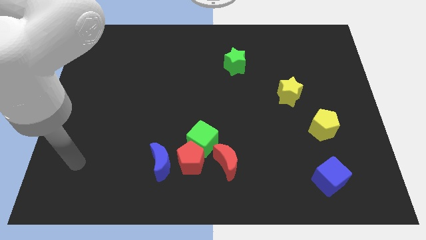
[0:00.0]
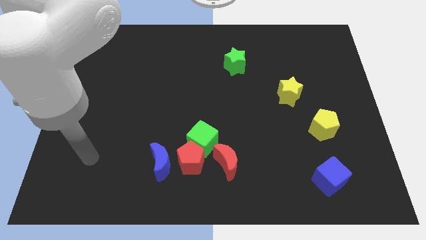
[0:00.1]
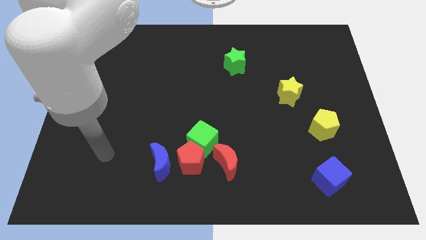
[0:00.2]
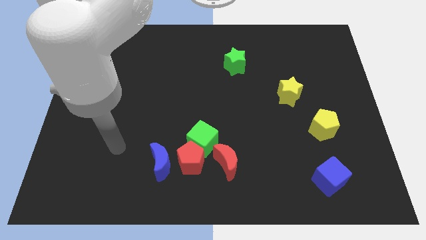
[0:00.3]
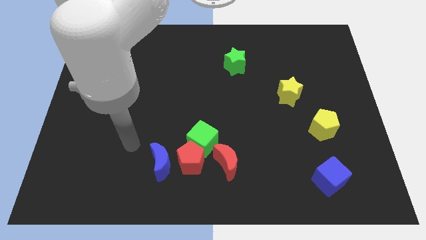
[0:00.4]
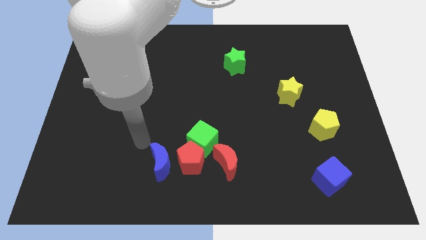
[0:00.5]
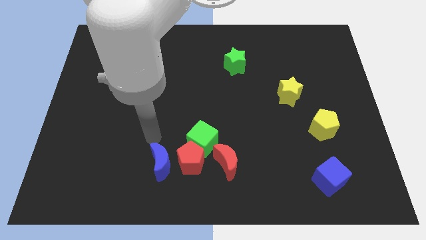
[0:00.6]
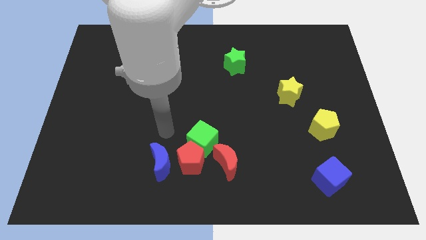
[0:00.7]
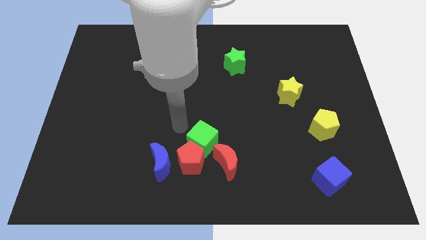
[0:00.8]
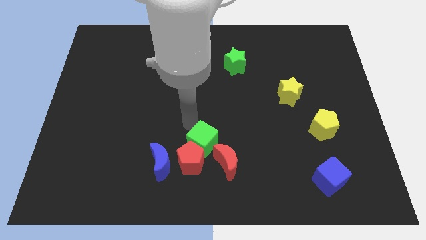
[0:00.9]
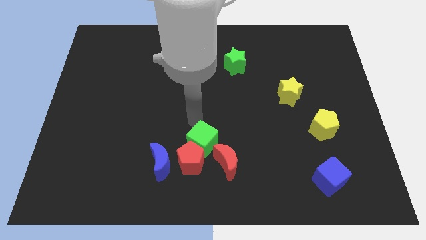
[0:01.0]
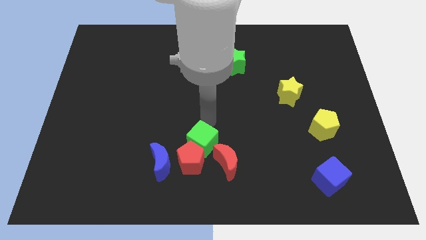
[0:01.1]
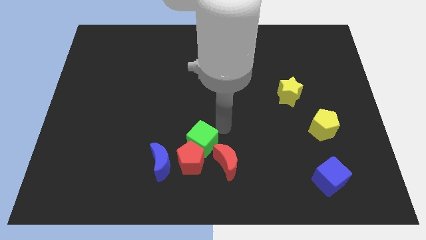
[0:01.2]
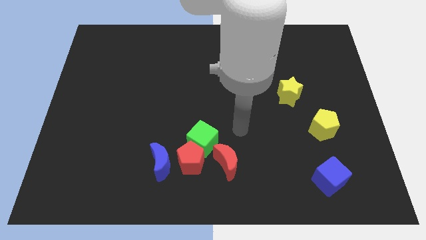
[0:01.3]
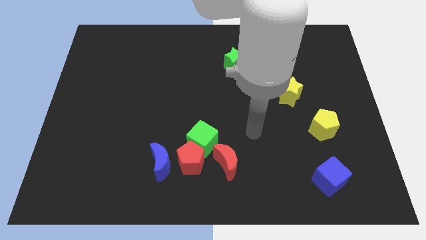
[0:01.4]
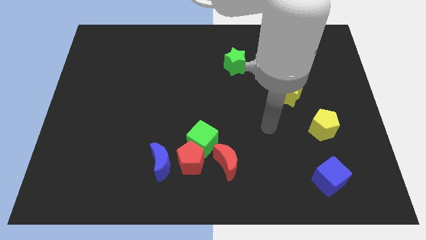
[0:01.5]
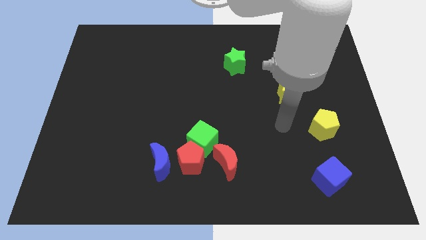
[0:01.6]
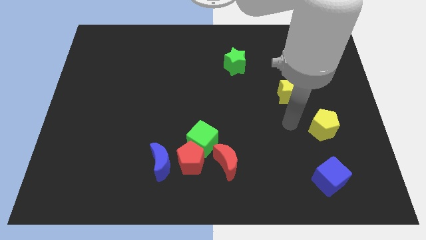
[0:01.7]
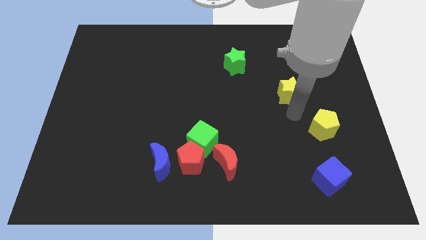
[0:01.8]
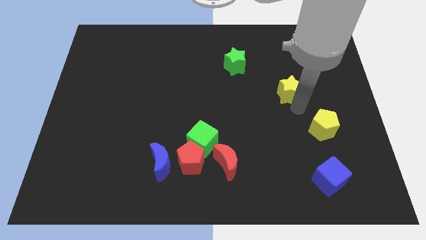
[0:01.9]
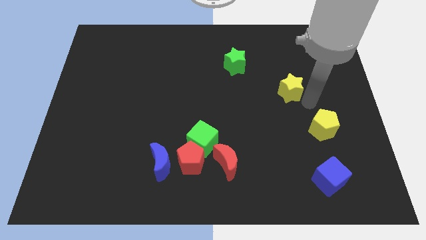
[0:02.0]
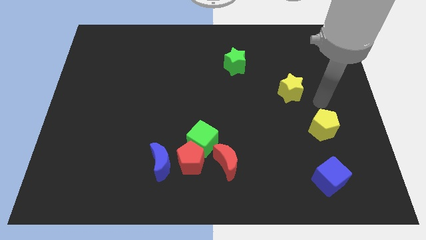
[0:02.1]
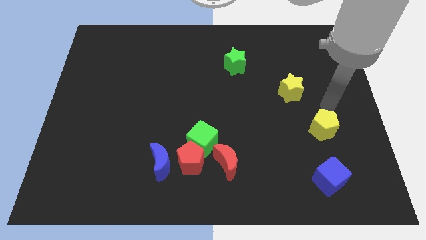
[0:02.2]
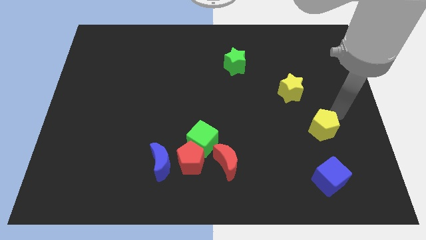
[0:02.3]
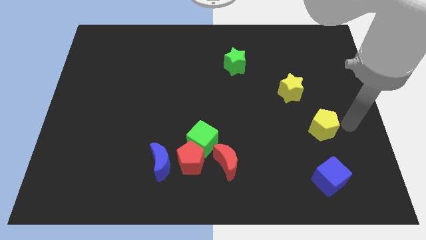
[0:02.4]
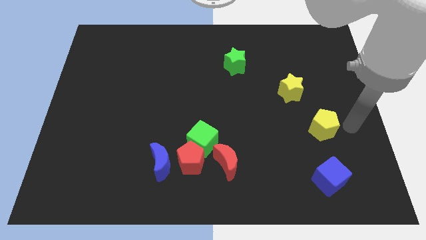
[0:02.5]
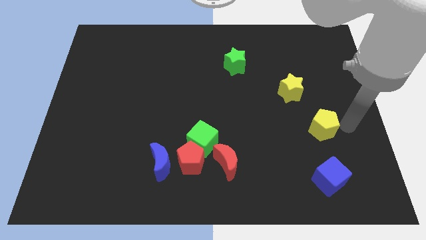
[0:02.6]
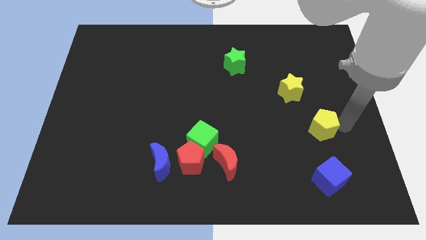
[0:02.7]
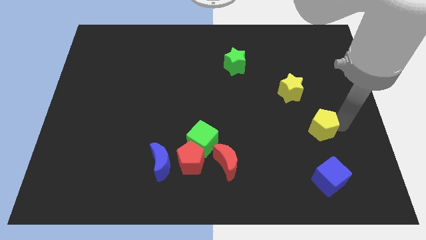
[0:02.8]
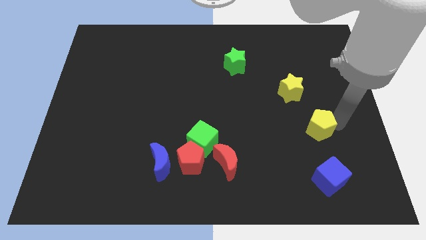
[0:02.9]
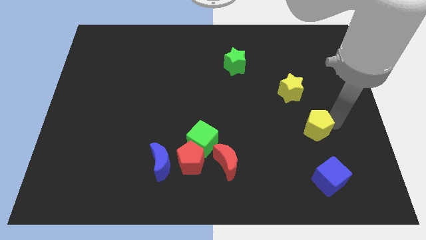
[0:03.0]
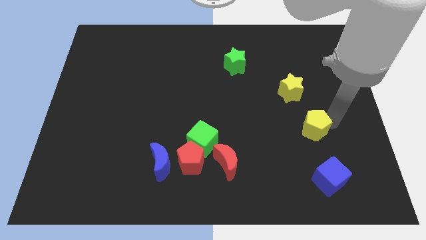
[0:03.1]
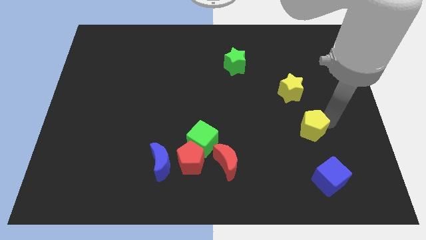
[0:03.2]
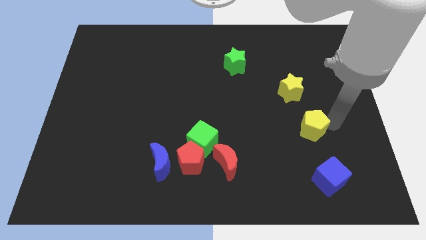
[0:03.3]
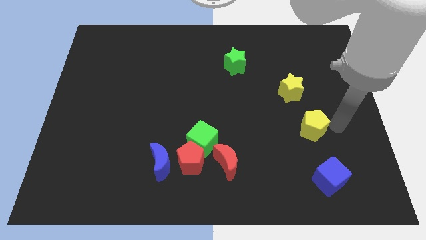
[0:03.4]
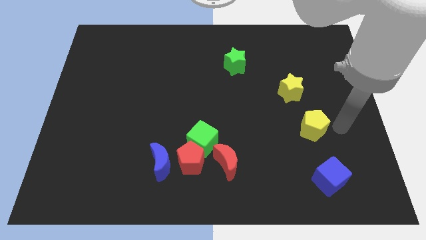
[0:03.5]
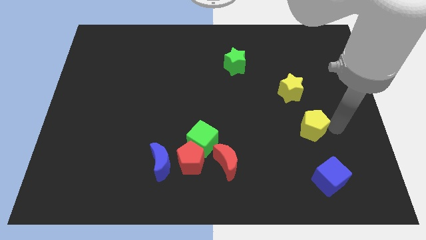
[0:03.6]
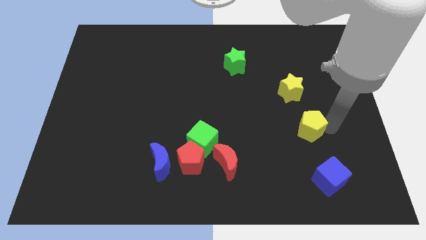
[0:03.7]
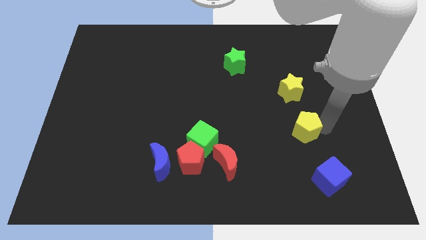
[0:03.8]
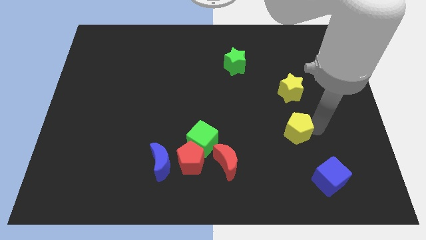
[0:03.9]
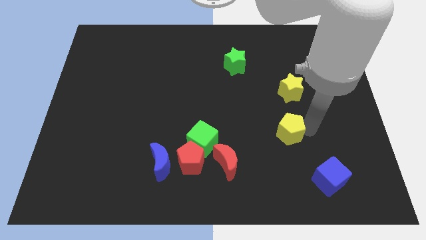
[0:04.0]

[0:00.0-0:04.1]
move the yellow pentagon left slightly

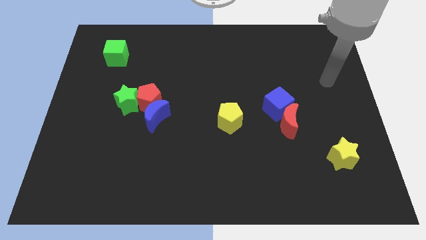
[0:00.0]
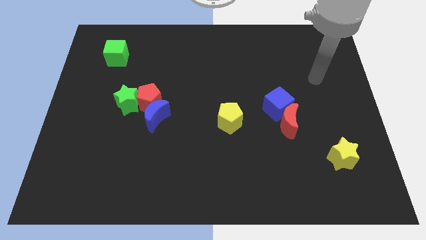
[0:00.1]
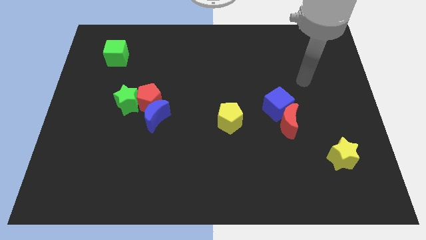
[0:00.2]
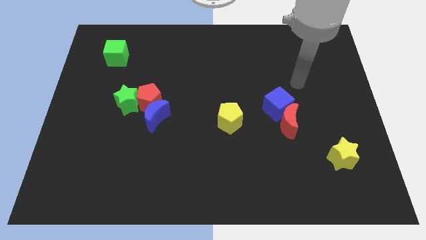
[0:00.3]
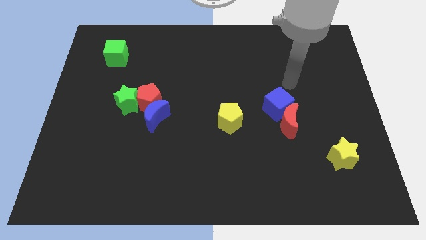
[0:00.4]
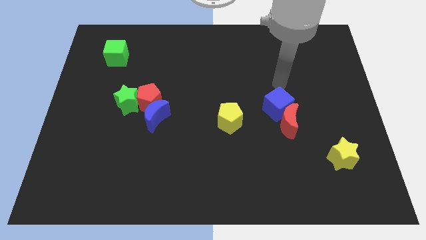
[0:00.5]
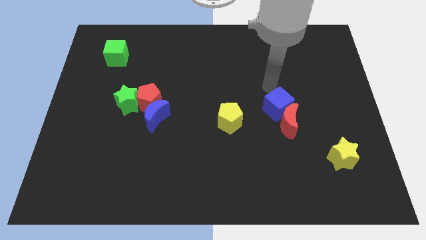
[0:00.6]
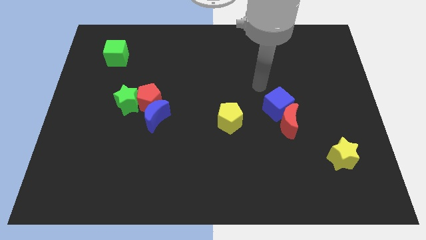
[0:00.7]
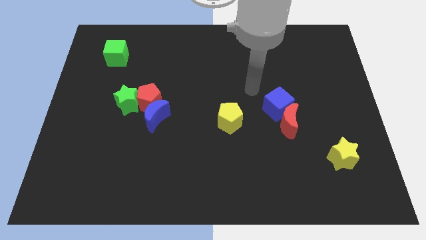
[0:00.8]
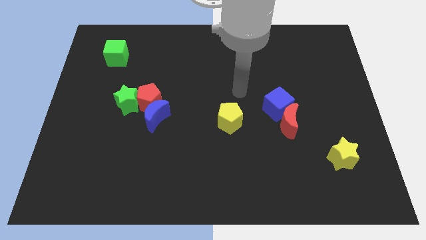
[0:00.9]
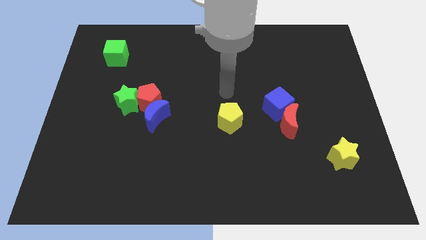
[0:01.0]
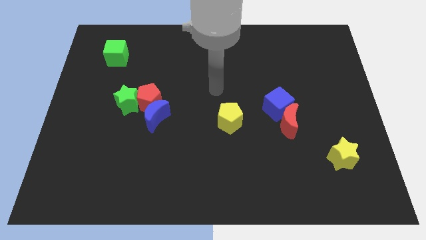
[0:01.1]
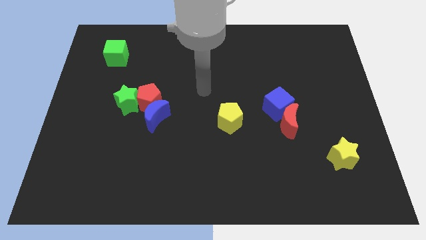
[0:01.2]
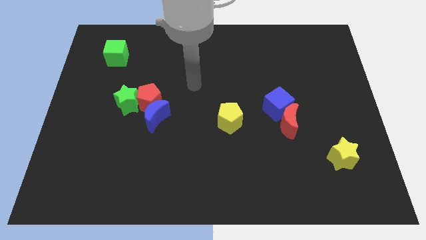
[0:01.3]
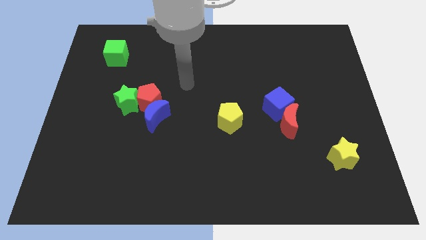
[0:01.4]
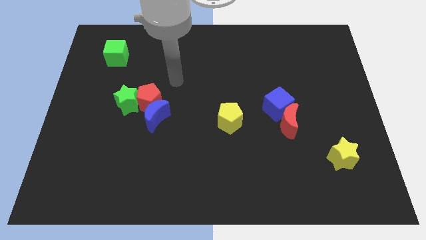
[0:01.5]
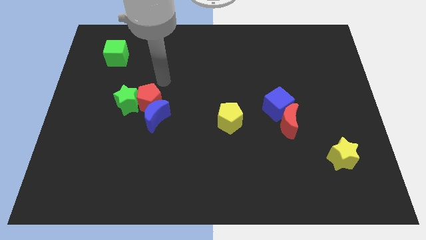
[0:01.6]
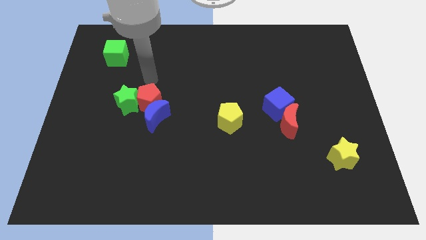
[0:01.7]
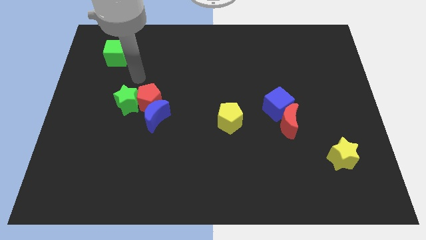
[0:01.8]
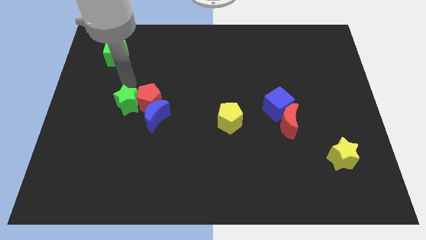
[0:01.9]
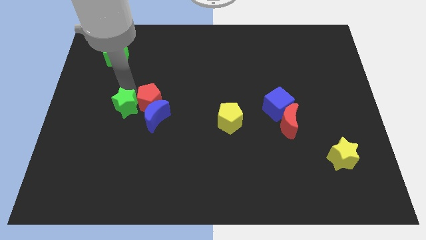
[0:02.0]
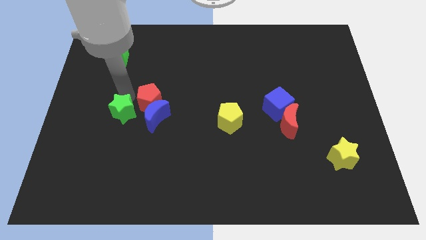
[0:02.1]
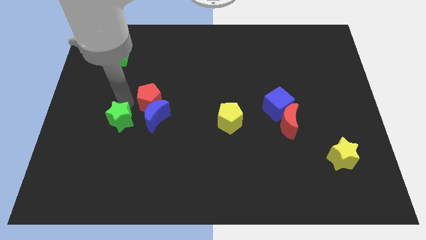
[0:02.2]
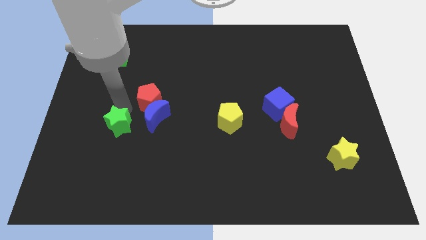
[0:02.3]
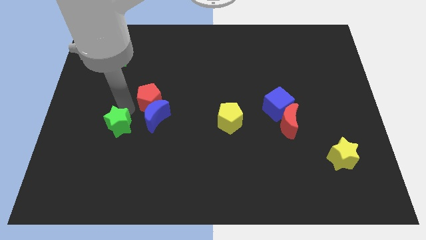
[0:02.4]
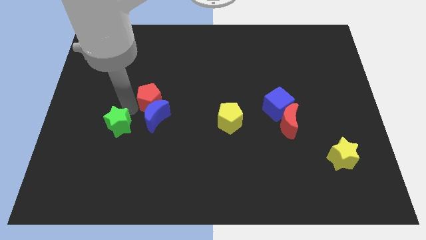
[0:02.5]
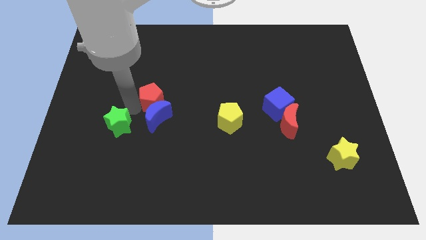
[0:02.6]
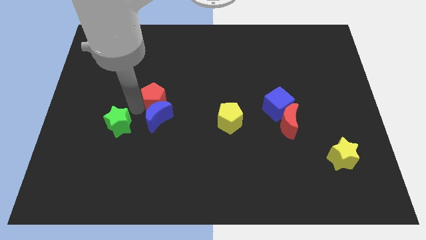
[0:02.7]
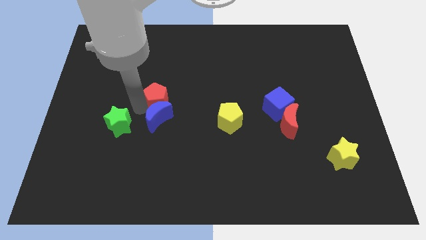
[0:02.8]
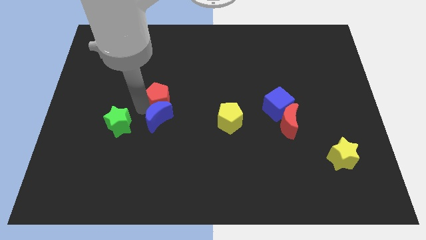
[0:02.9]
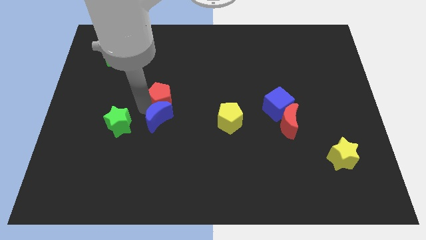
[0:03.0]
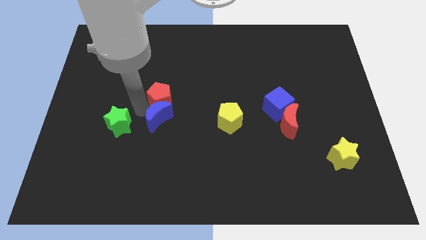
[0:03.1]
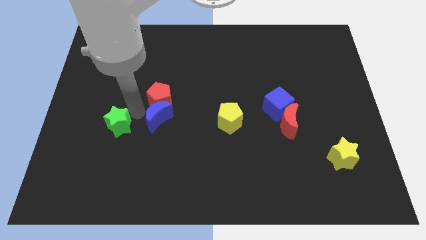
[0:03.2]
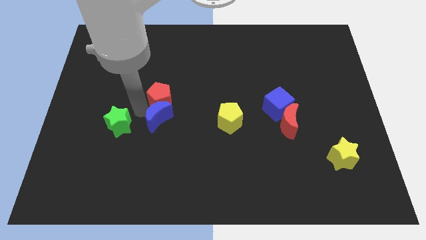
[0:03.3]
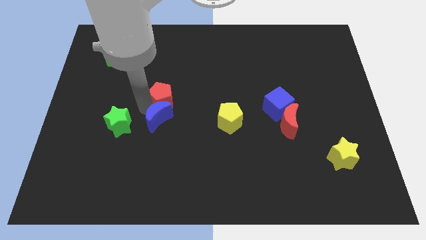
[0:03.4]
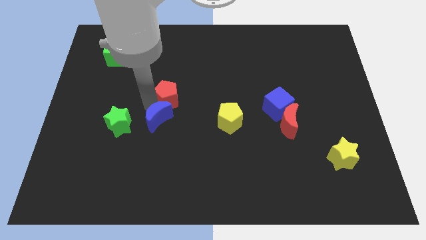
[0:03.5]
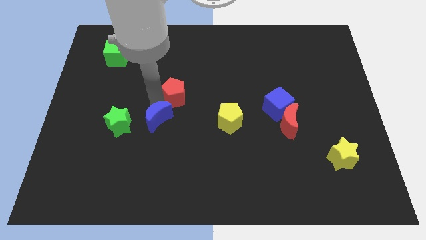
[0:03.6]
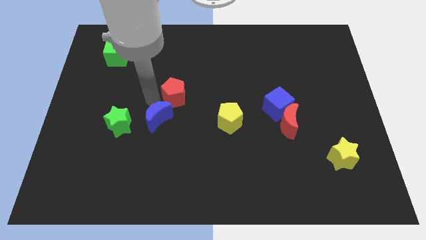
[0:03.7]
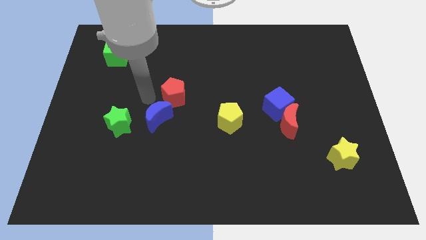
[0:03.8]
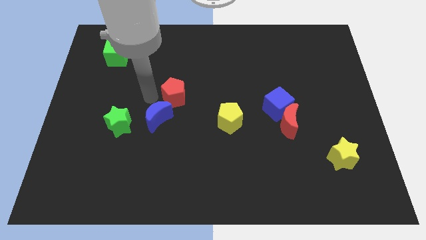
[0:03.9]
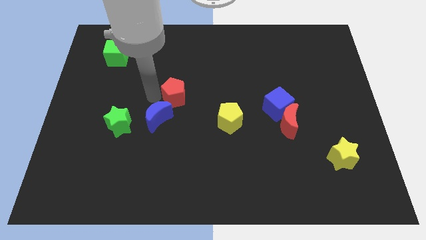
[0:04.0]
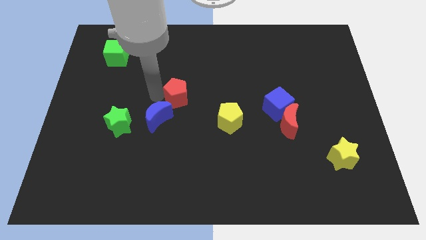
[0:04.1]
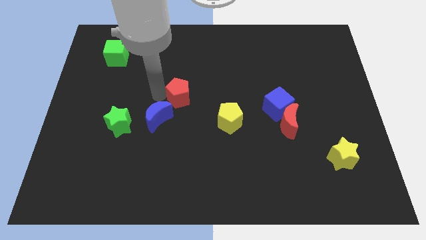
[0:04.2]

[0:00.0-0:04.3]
push the red pentagon right a bit
